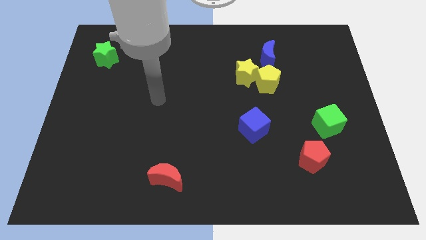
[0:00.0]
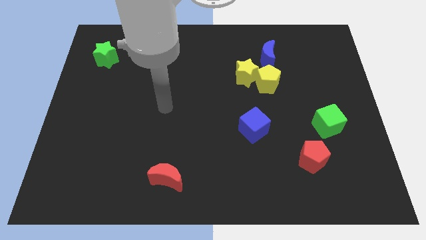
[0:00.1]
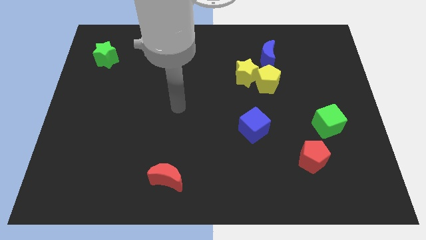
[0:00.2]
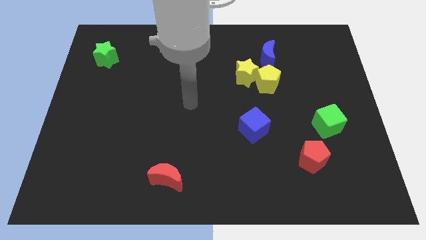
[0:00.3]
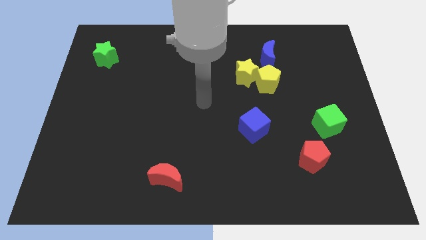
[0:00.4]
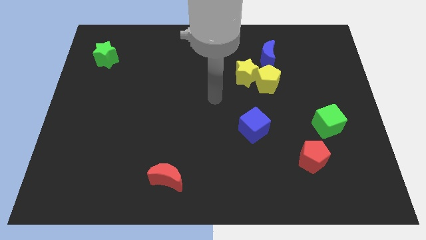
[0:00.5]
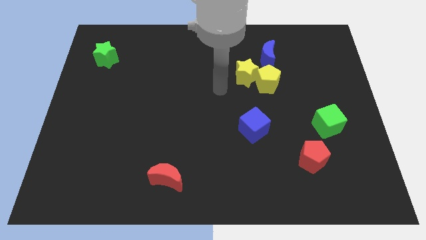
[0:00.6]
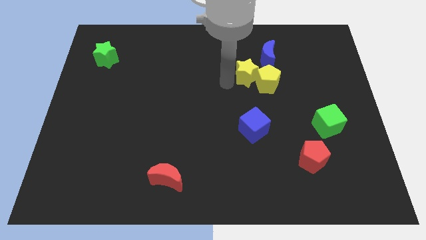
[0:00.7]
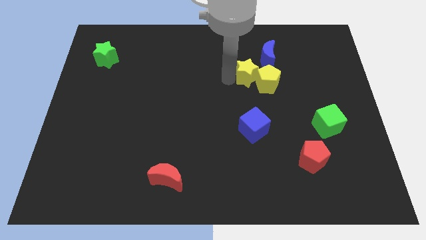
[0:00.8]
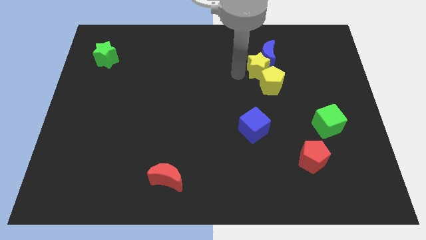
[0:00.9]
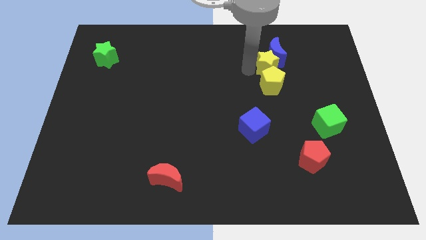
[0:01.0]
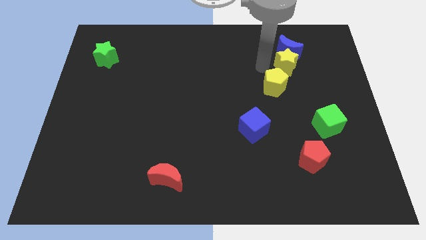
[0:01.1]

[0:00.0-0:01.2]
separate the yellow pentagon from the yellow star and blue moon

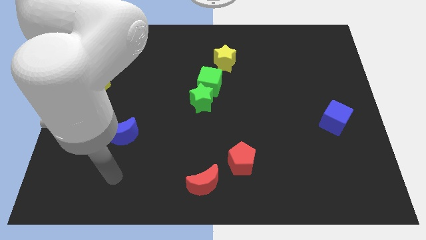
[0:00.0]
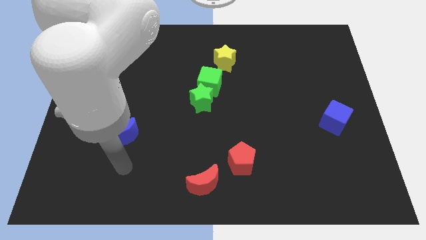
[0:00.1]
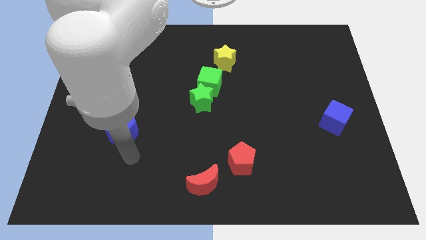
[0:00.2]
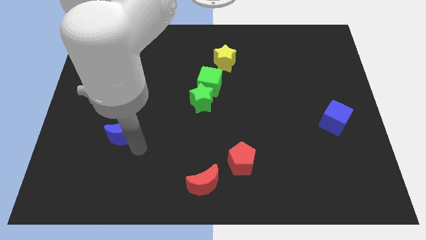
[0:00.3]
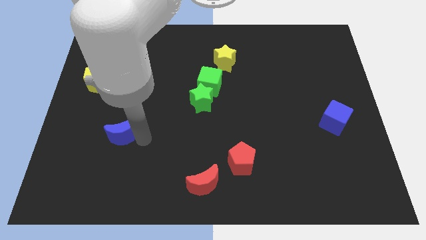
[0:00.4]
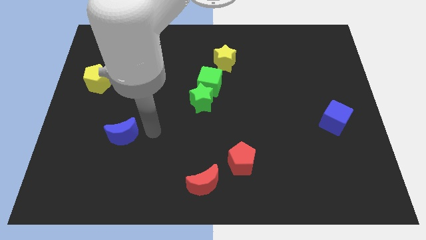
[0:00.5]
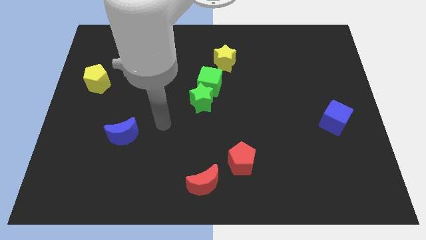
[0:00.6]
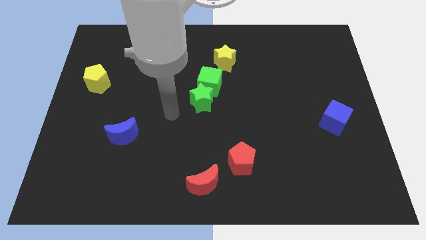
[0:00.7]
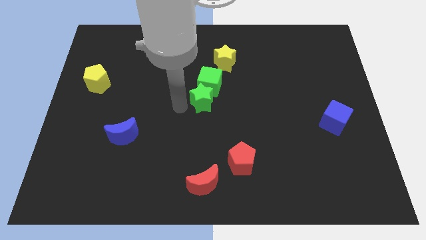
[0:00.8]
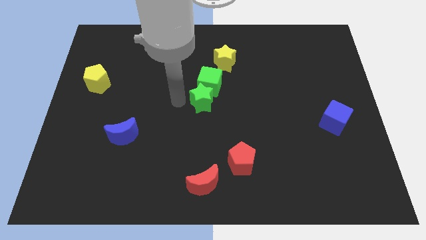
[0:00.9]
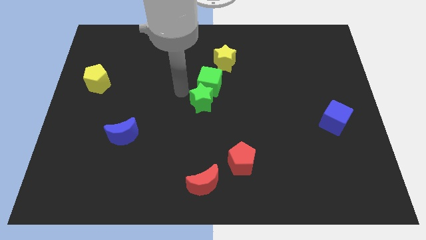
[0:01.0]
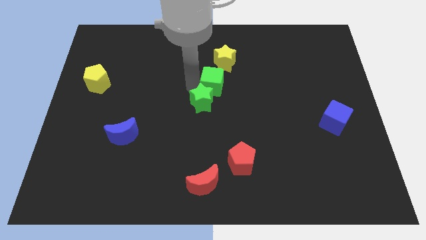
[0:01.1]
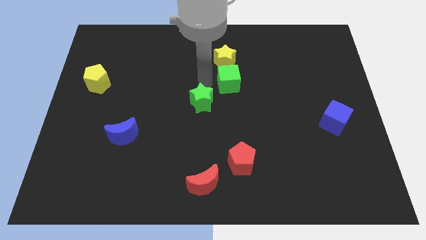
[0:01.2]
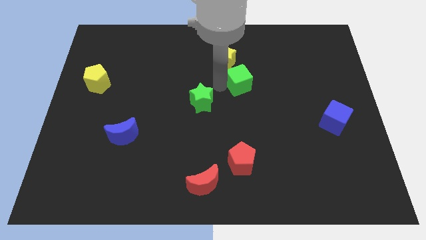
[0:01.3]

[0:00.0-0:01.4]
pull the green star apart from the green cube

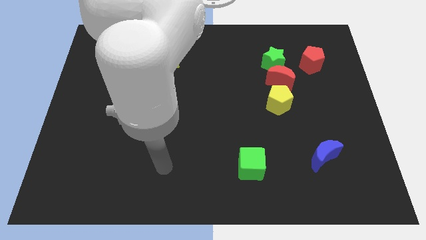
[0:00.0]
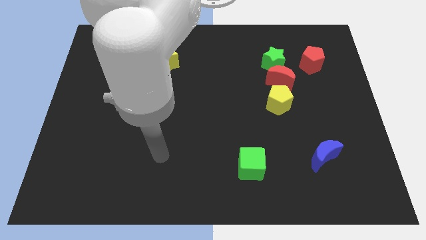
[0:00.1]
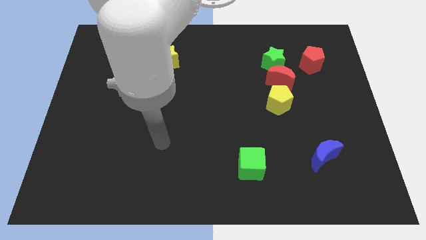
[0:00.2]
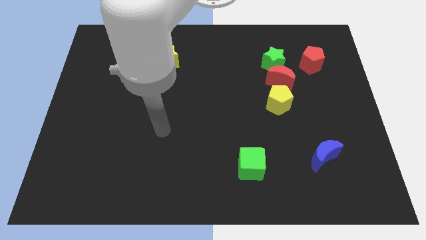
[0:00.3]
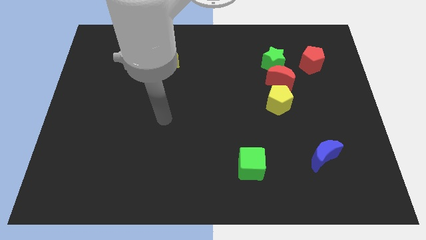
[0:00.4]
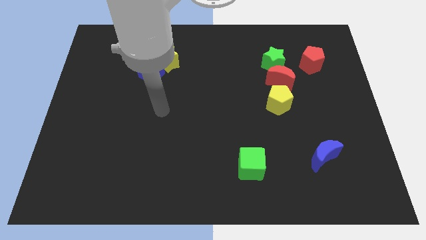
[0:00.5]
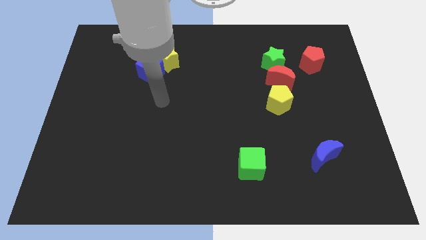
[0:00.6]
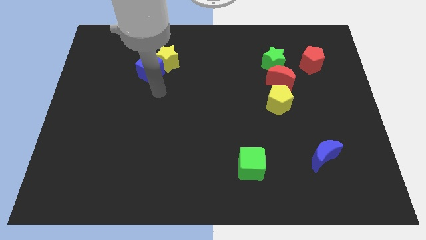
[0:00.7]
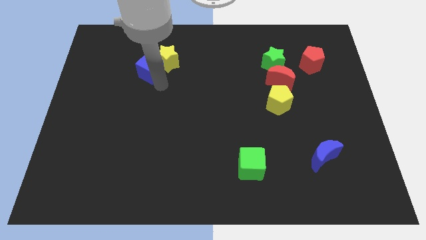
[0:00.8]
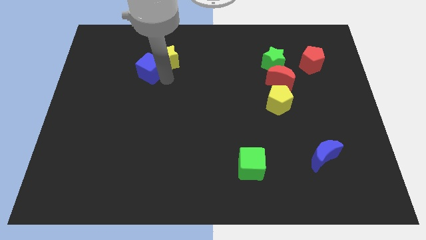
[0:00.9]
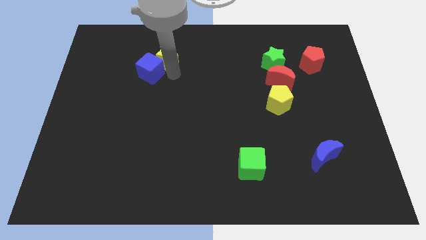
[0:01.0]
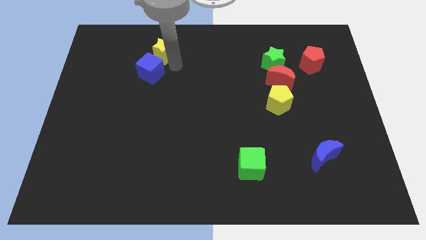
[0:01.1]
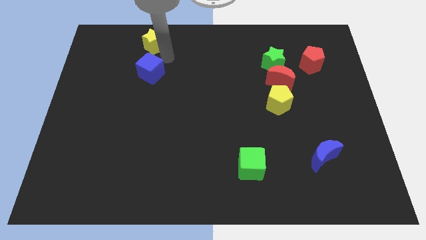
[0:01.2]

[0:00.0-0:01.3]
move the blue cube away from the yellow star

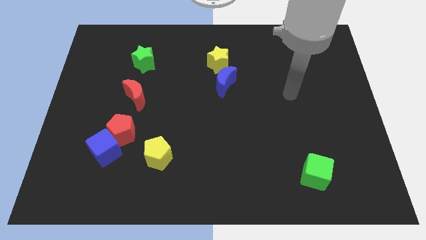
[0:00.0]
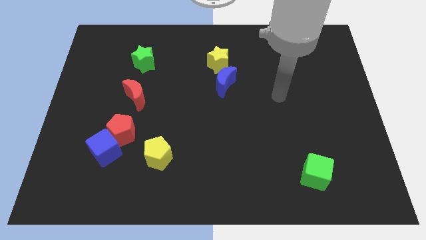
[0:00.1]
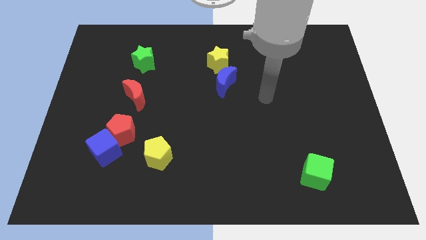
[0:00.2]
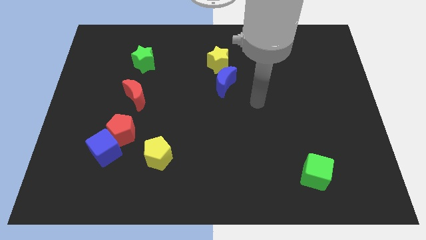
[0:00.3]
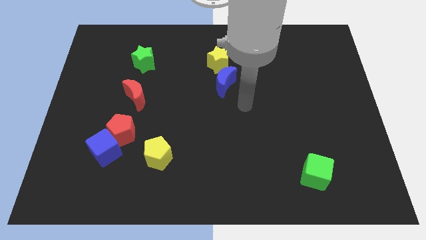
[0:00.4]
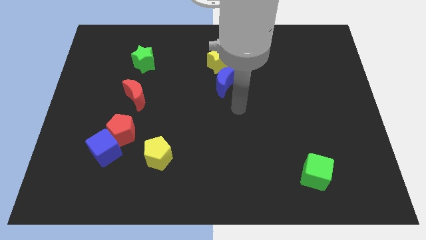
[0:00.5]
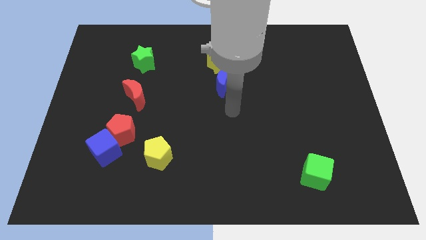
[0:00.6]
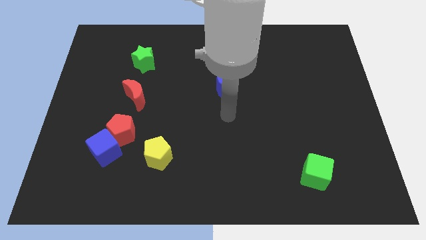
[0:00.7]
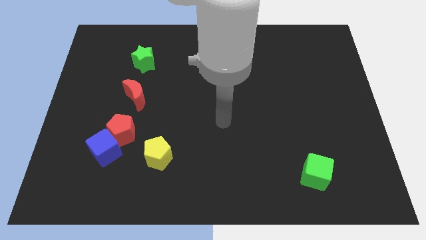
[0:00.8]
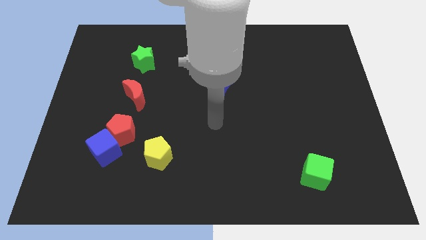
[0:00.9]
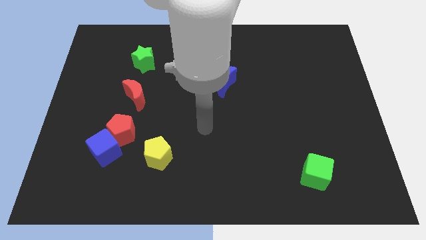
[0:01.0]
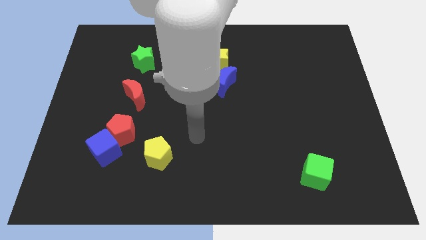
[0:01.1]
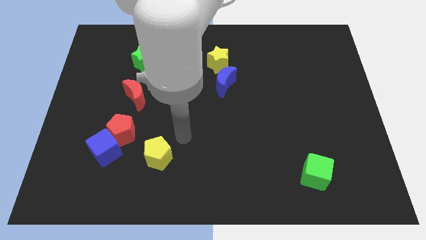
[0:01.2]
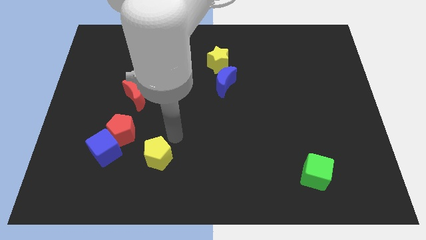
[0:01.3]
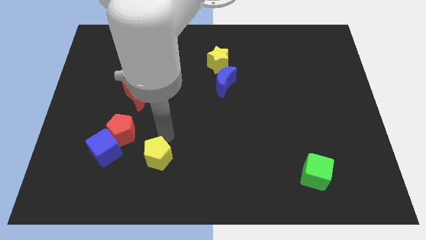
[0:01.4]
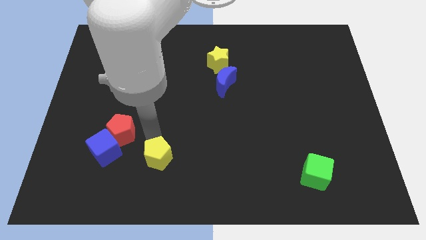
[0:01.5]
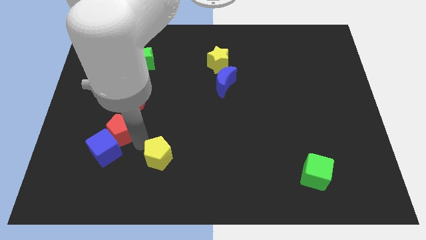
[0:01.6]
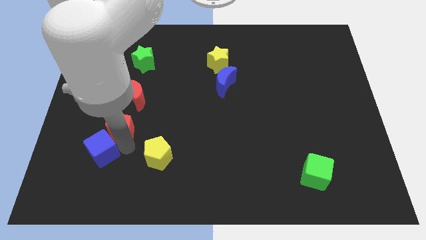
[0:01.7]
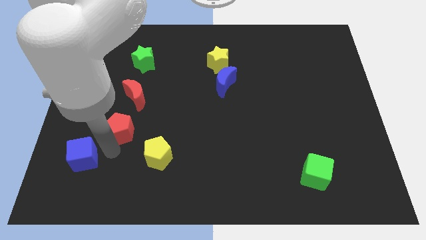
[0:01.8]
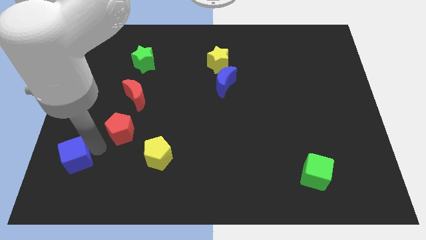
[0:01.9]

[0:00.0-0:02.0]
pull the red pentagon apart from the blue cube

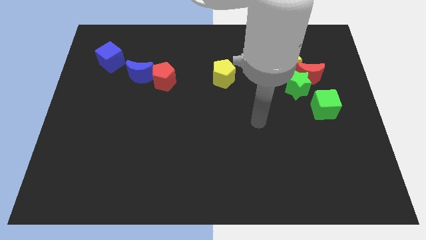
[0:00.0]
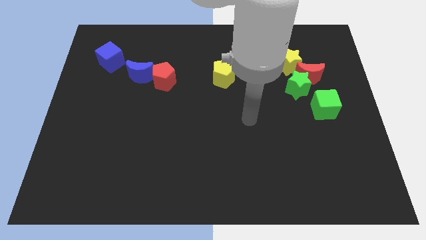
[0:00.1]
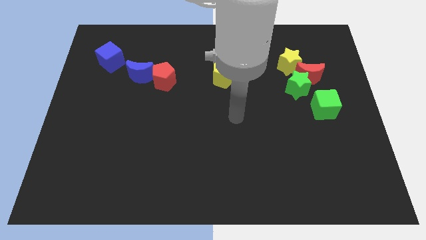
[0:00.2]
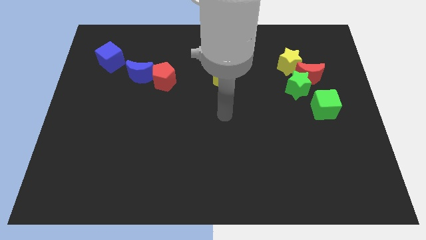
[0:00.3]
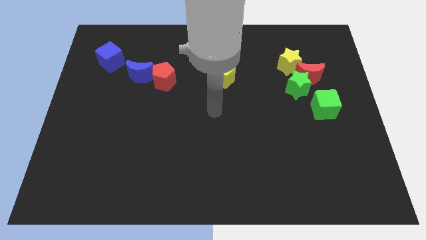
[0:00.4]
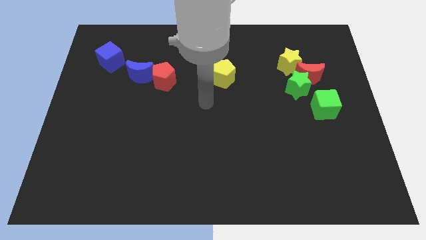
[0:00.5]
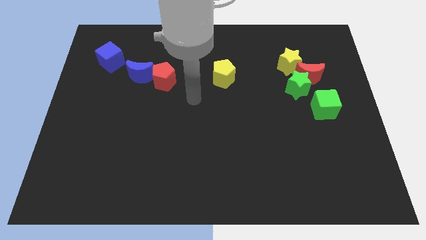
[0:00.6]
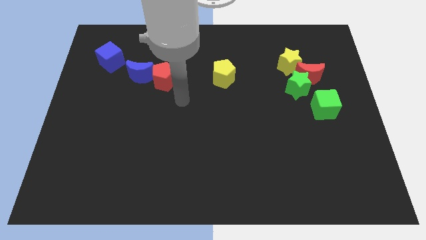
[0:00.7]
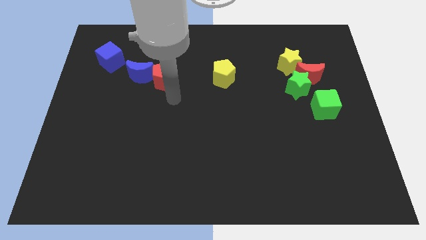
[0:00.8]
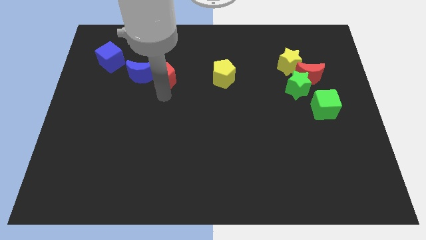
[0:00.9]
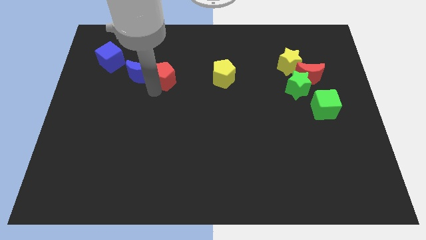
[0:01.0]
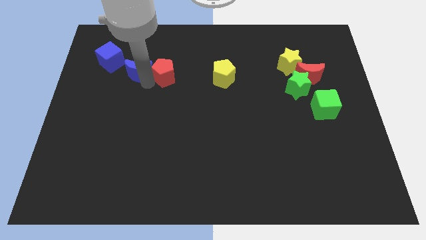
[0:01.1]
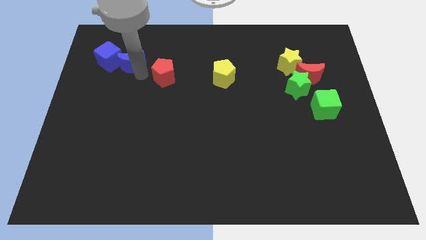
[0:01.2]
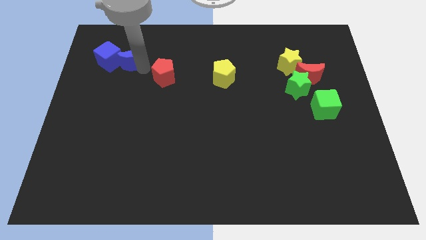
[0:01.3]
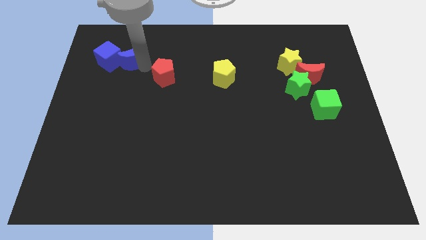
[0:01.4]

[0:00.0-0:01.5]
pull the red pentagon apart from the blue moon

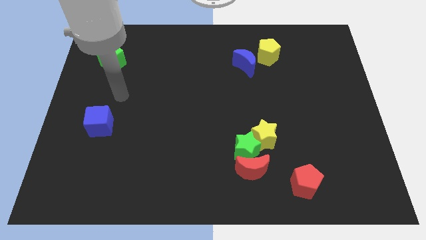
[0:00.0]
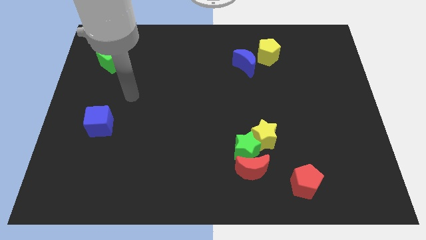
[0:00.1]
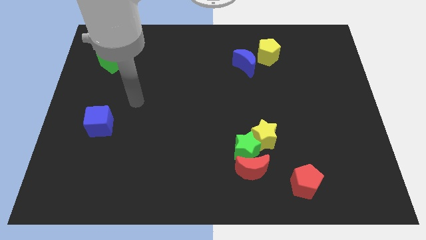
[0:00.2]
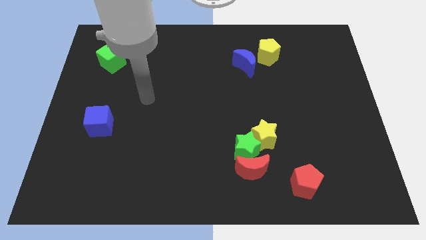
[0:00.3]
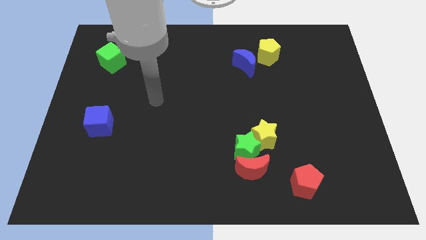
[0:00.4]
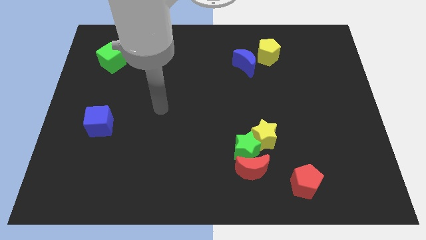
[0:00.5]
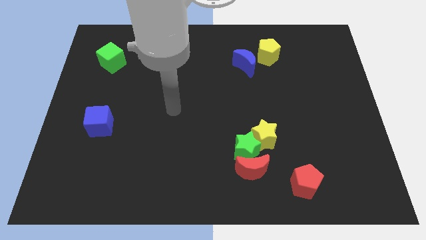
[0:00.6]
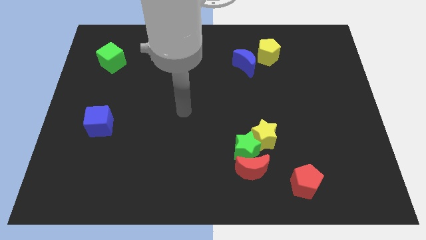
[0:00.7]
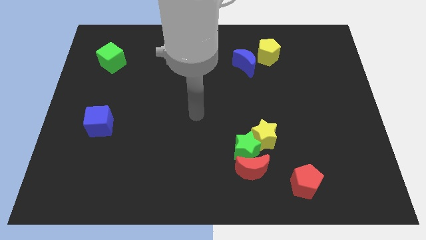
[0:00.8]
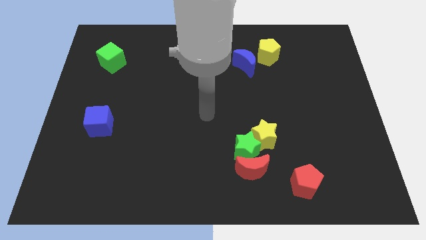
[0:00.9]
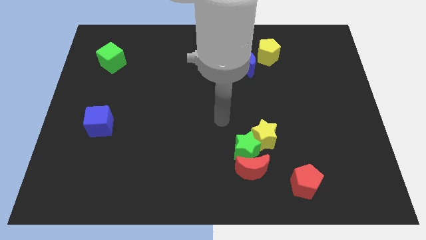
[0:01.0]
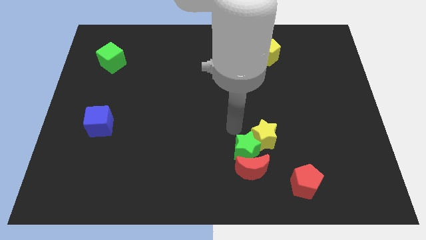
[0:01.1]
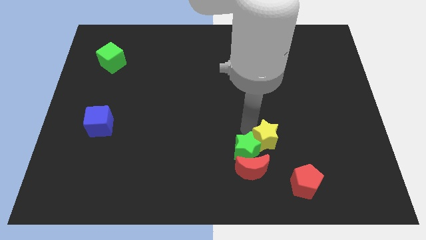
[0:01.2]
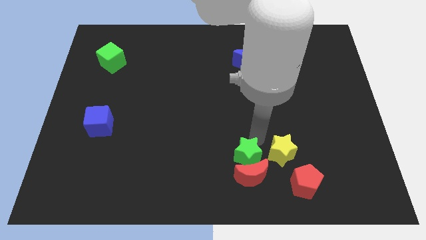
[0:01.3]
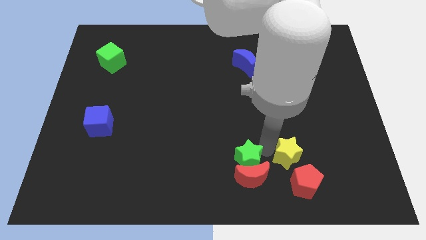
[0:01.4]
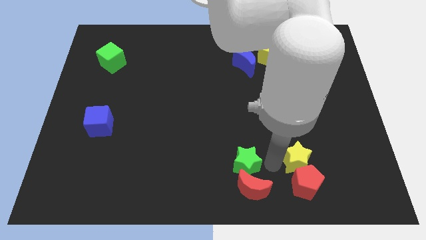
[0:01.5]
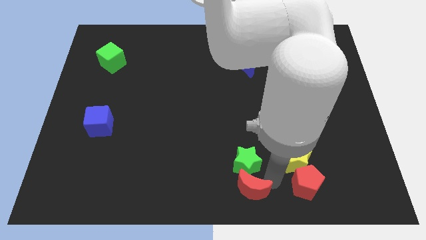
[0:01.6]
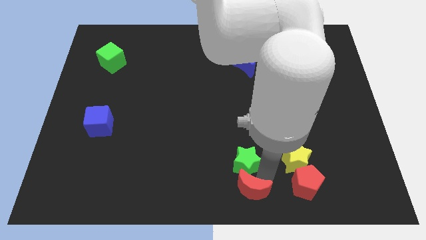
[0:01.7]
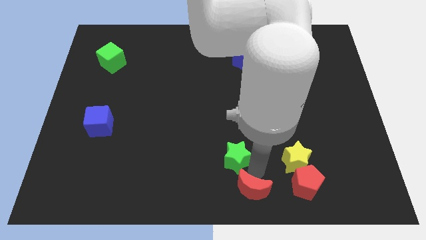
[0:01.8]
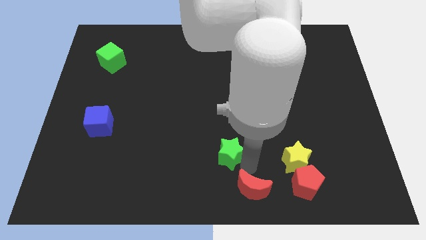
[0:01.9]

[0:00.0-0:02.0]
move the green star away from the red moon and yellow star
